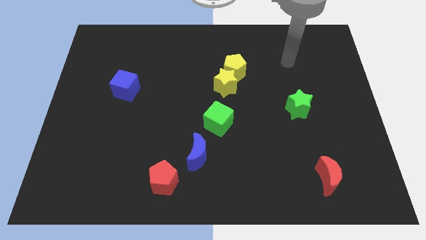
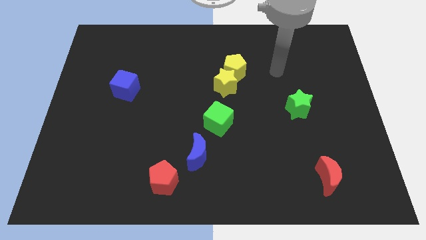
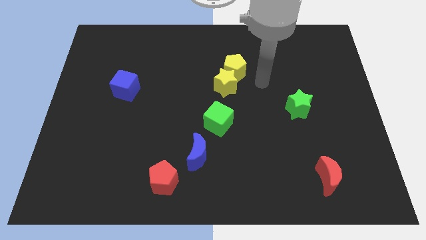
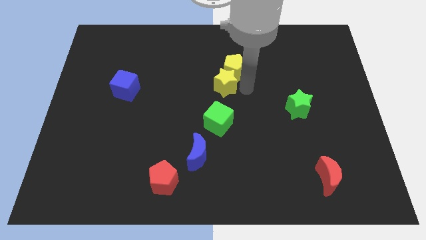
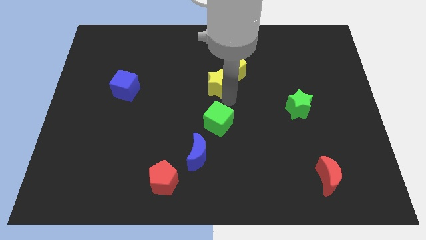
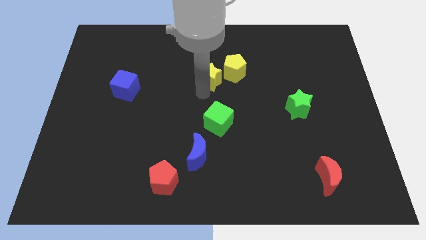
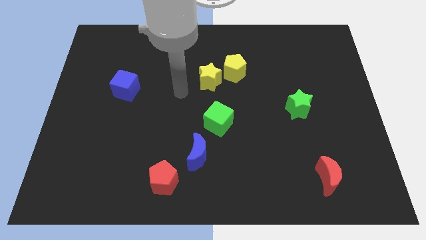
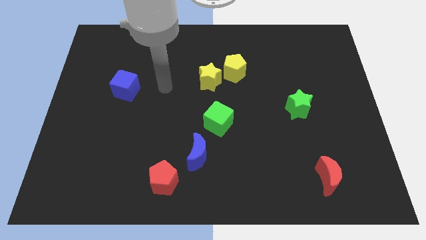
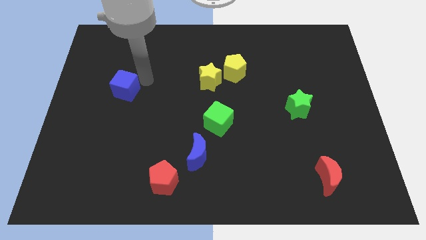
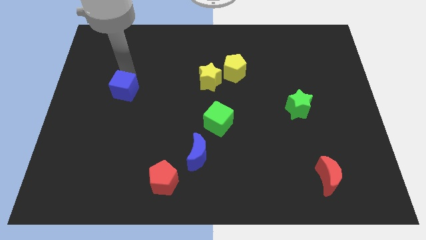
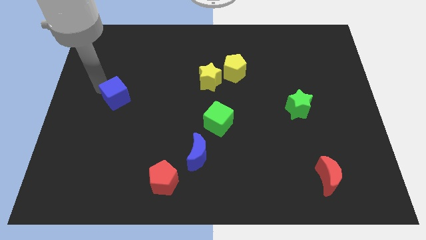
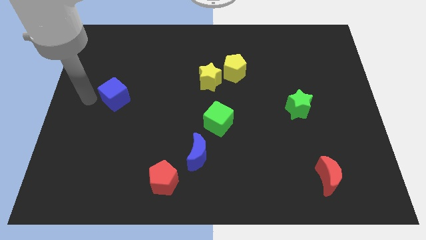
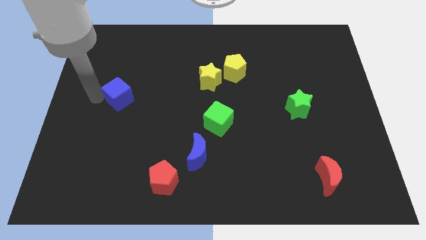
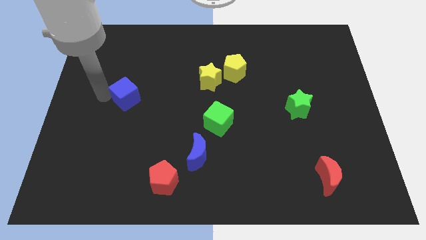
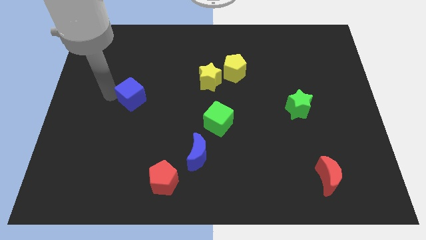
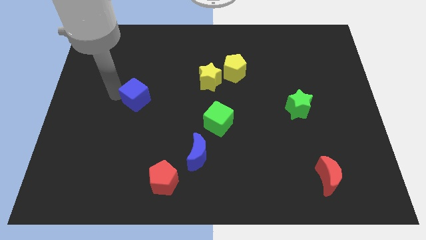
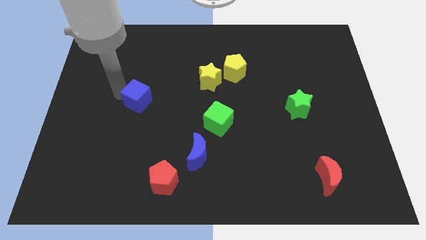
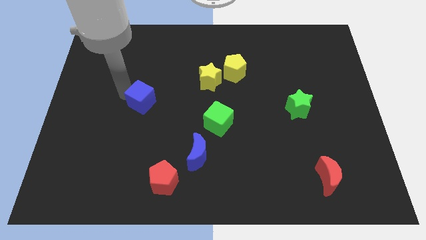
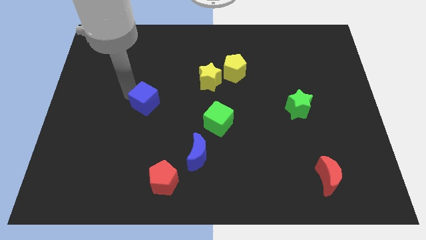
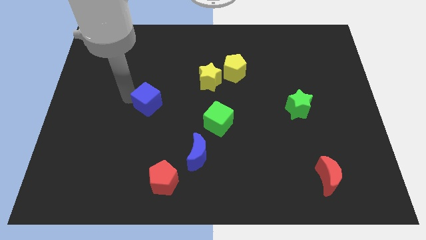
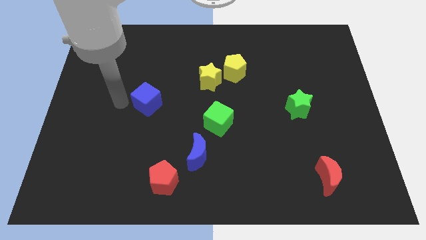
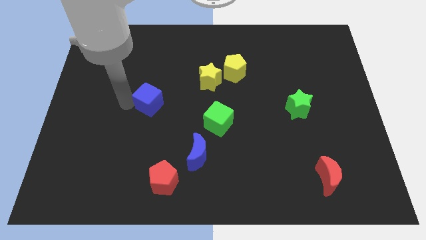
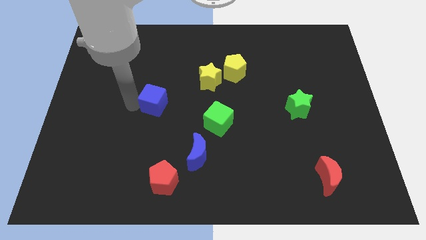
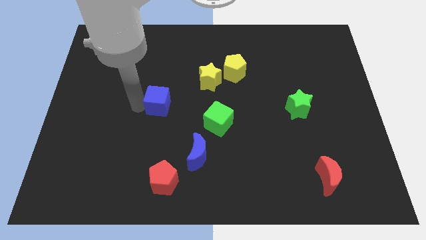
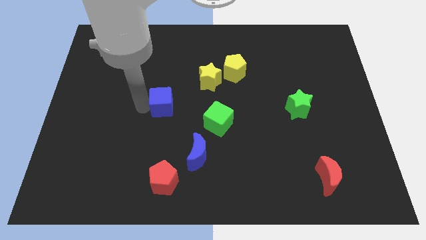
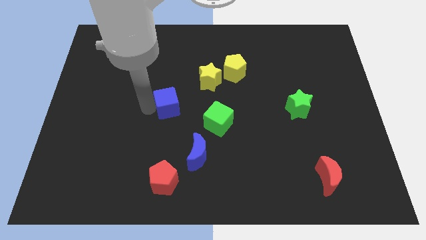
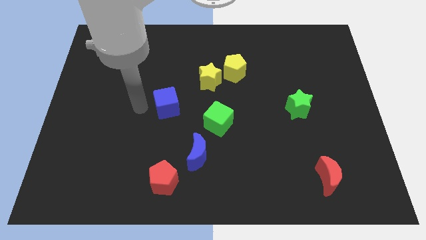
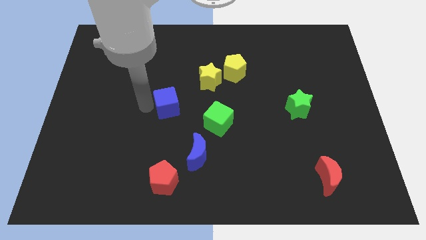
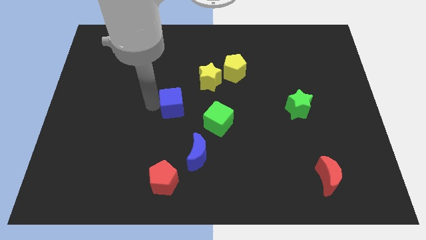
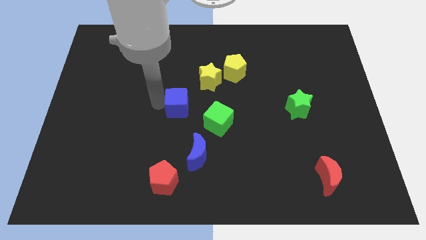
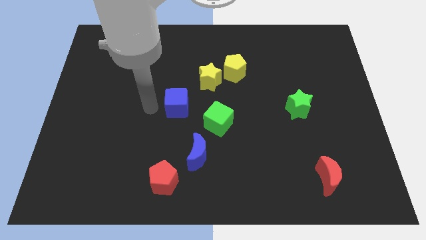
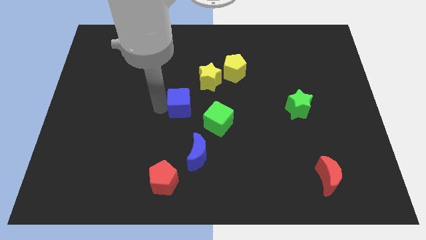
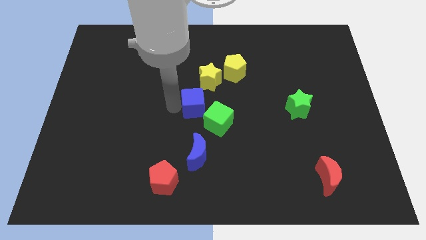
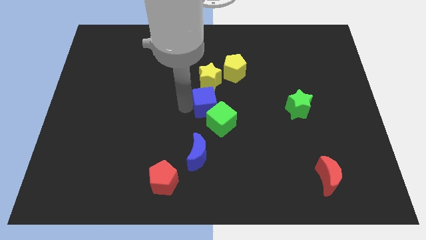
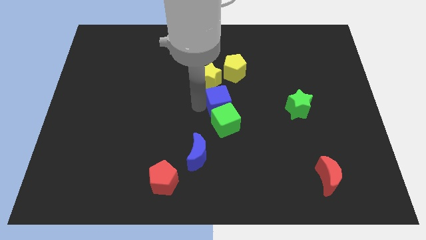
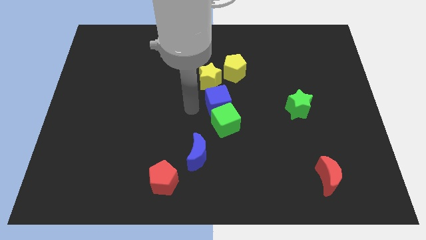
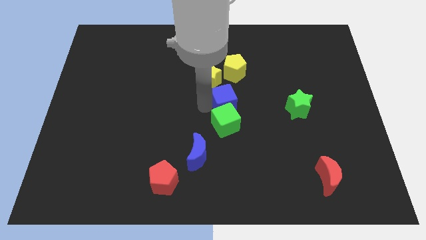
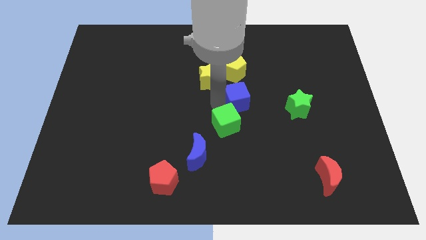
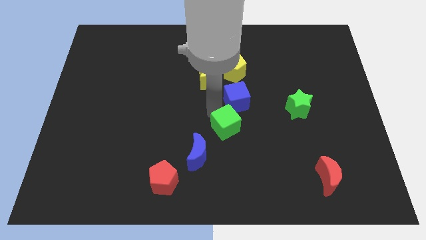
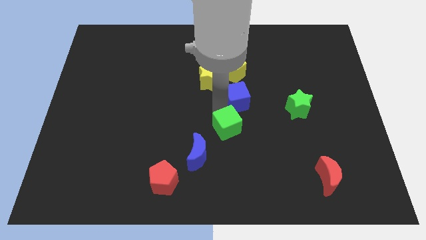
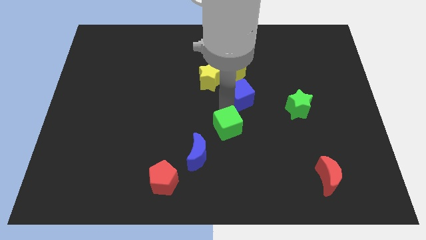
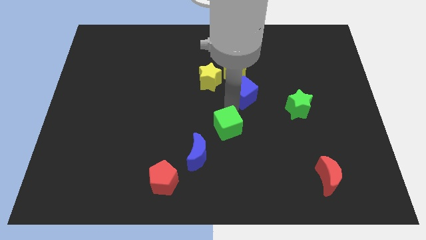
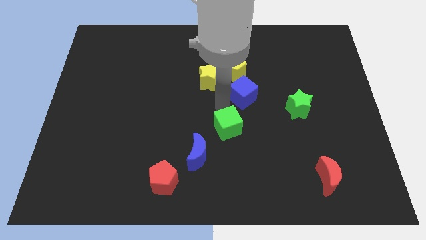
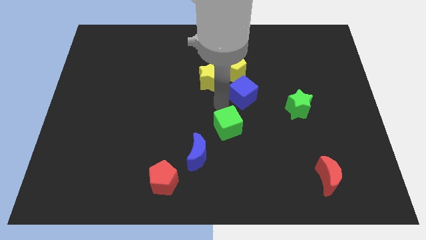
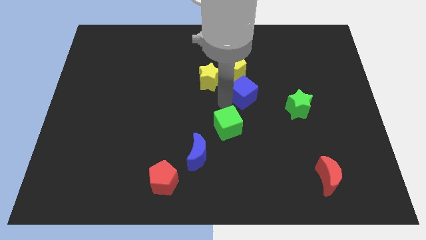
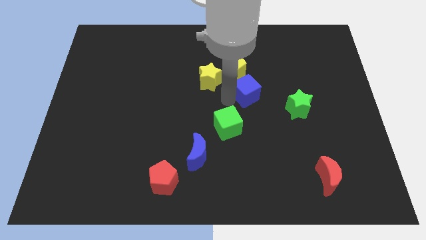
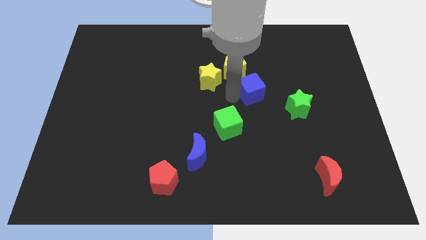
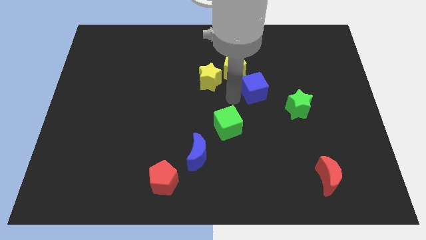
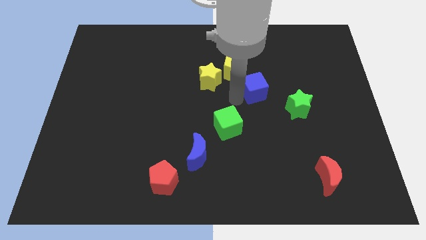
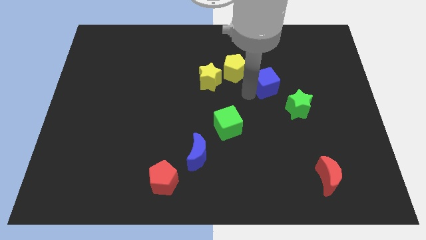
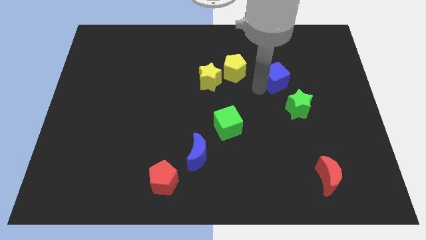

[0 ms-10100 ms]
push the blue cube above the green star

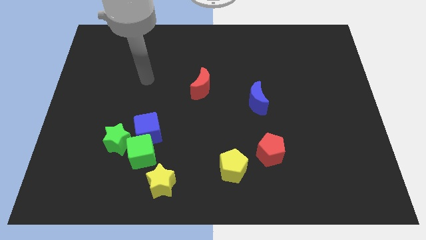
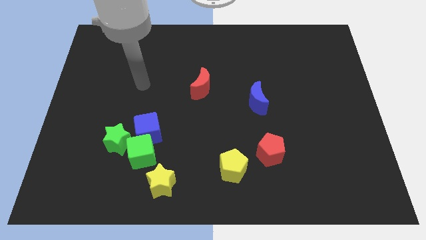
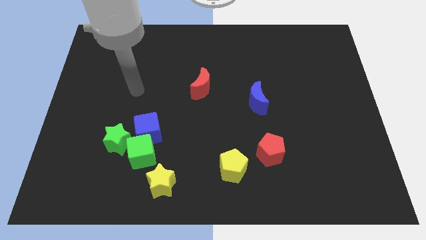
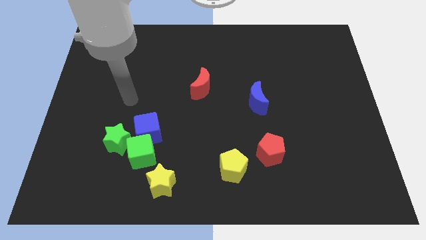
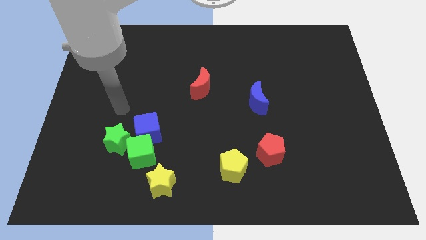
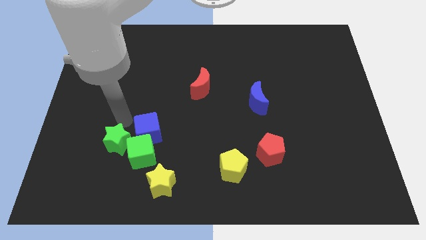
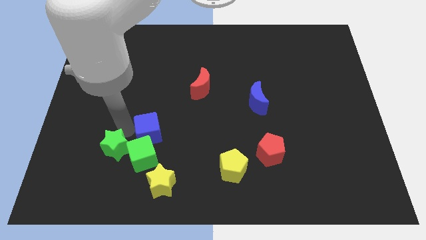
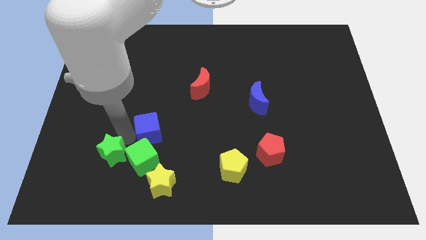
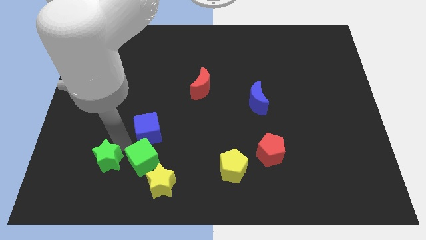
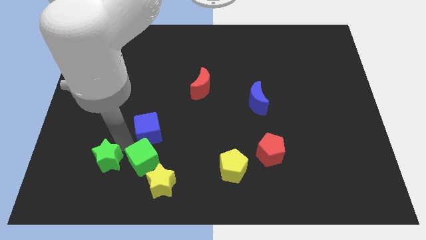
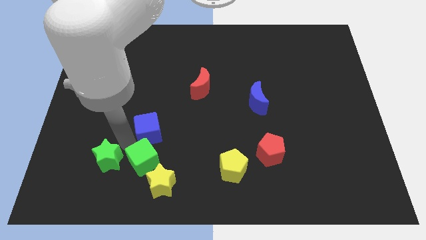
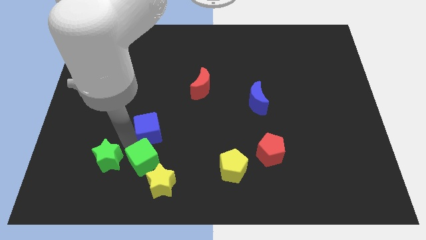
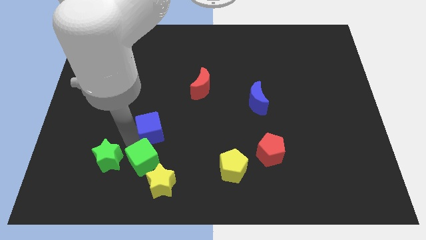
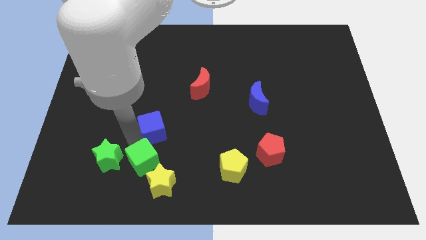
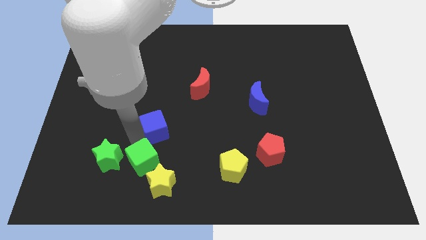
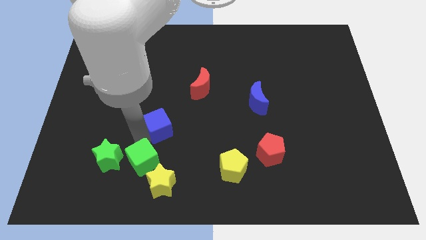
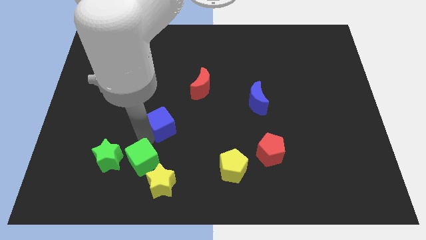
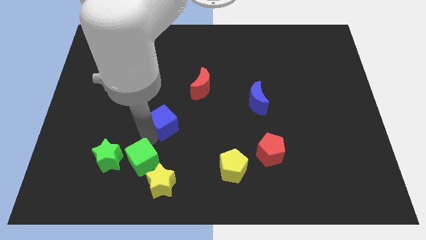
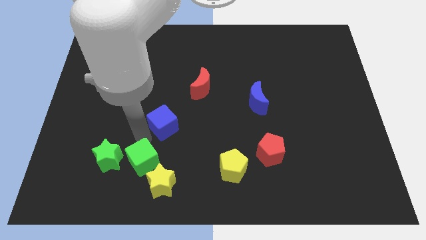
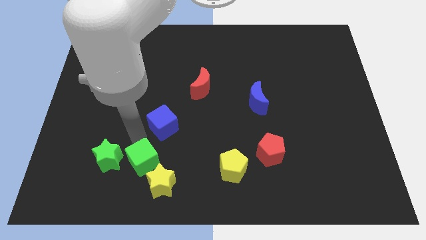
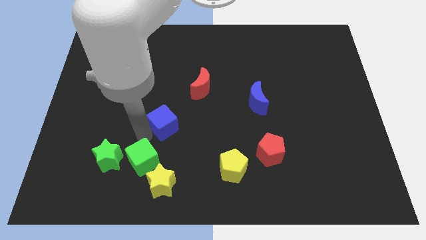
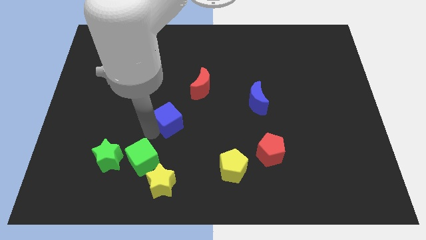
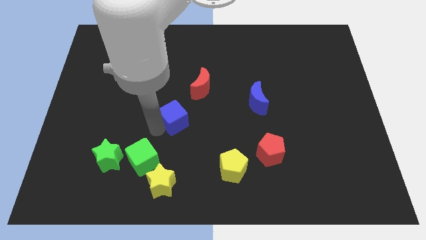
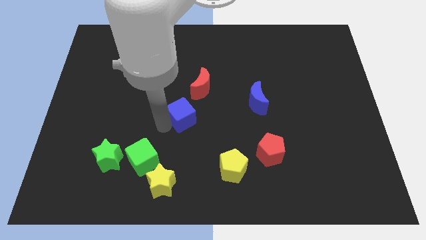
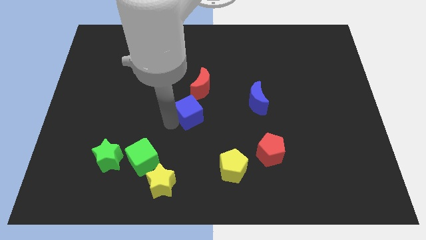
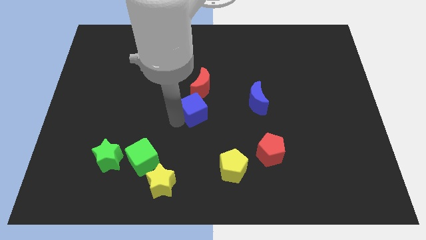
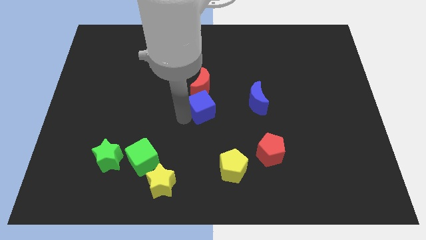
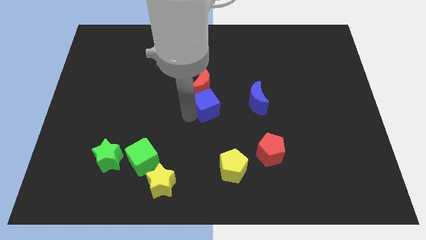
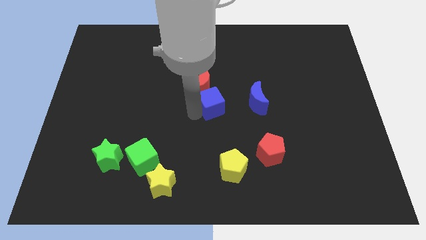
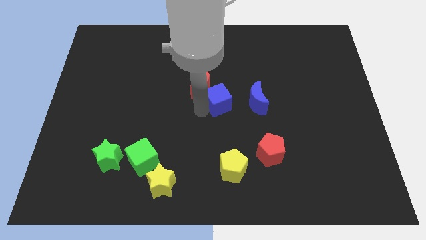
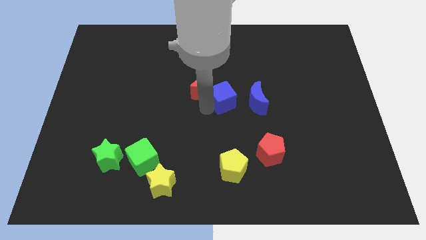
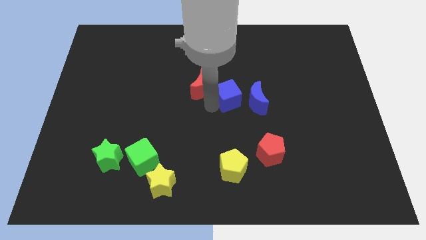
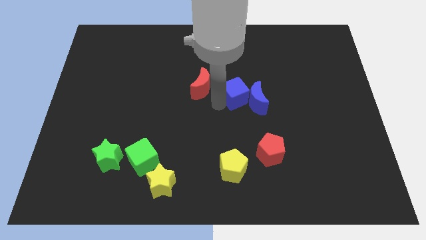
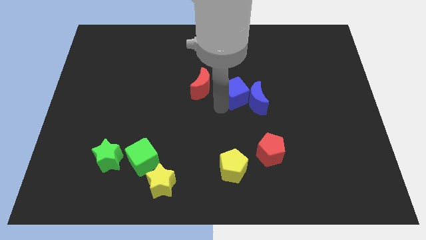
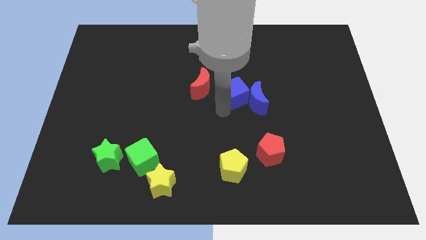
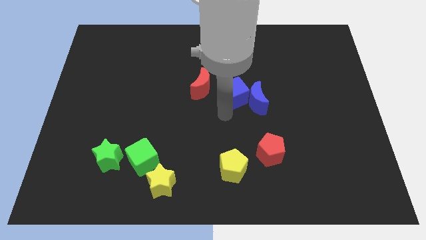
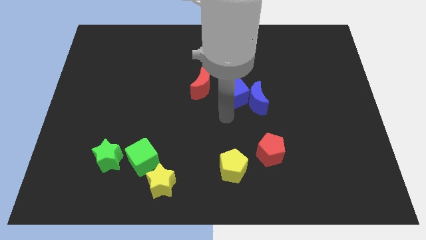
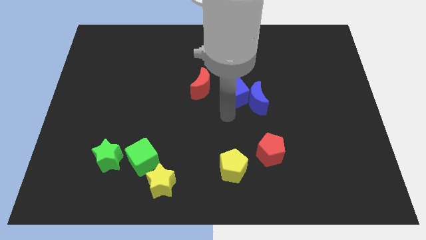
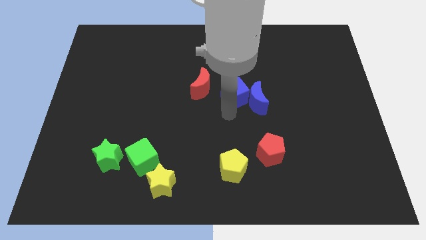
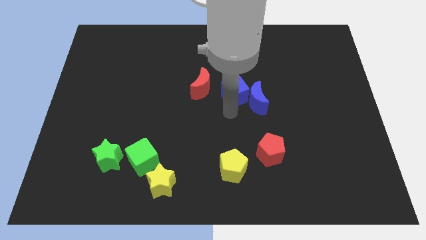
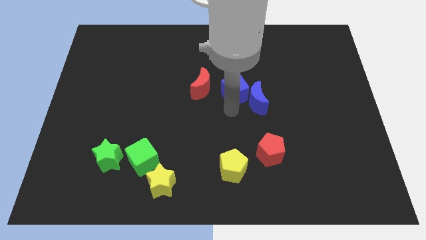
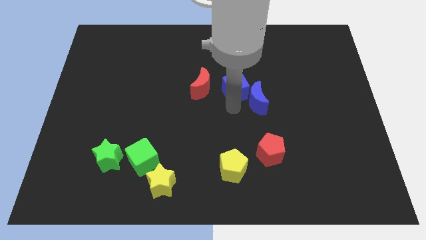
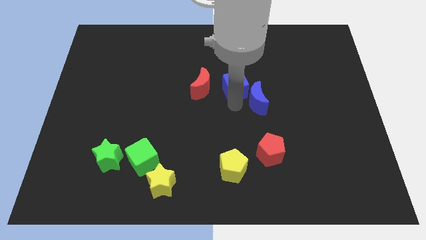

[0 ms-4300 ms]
slide the blue cube above the blue moon
